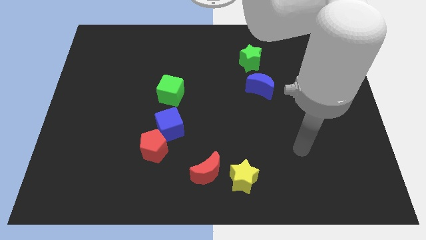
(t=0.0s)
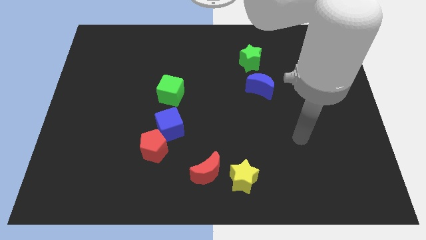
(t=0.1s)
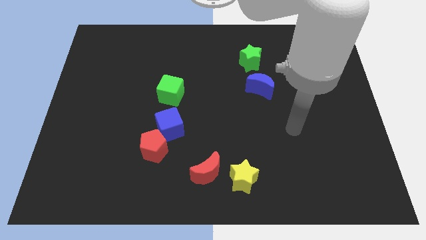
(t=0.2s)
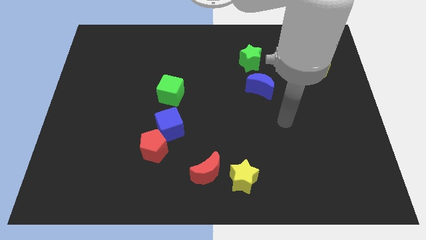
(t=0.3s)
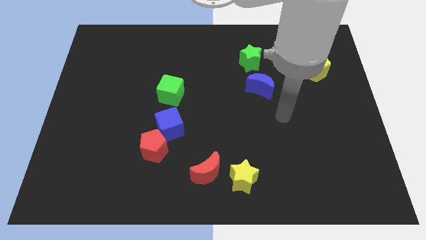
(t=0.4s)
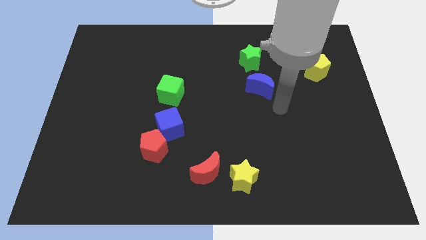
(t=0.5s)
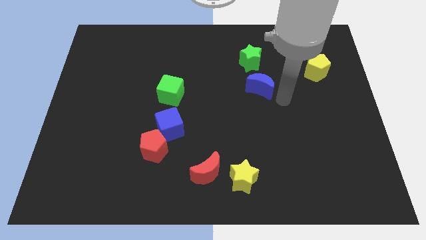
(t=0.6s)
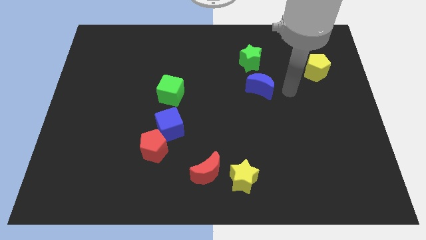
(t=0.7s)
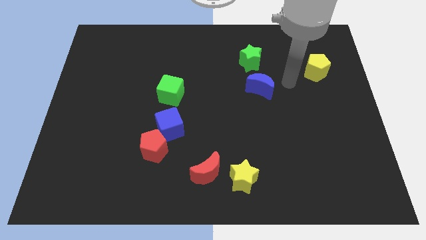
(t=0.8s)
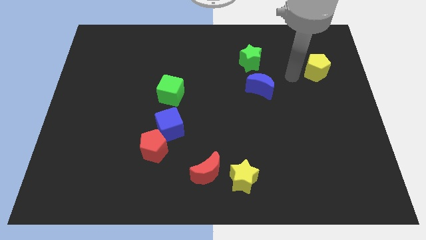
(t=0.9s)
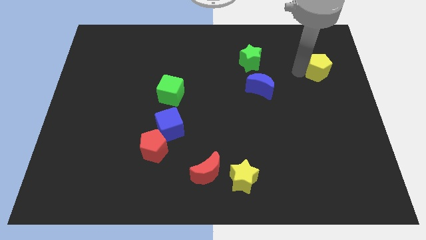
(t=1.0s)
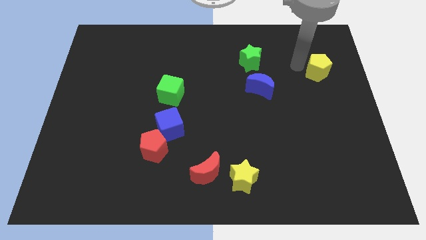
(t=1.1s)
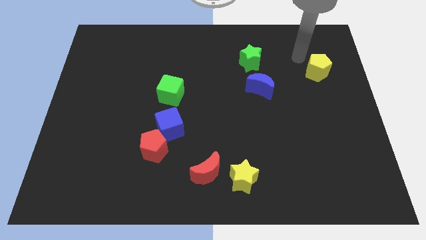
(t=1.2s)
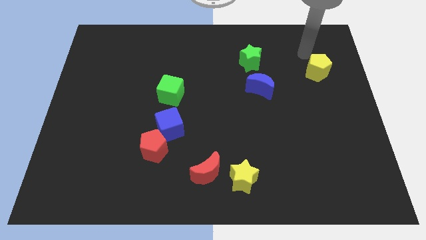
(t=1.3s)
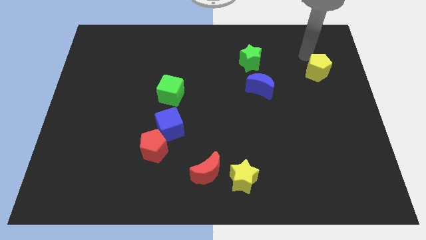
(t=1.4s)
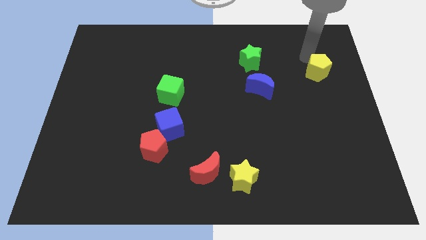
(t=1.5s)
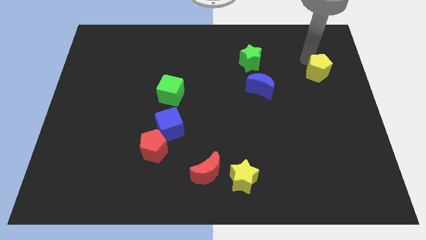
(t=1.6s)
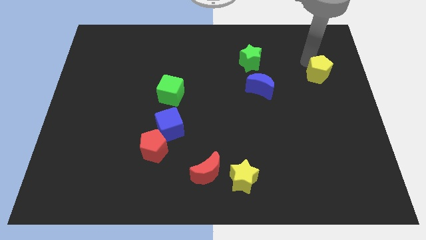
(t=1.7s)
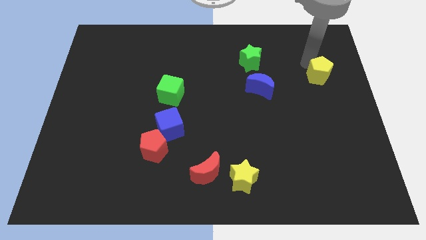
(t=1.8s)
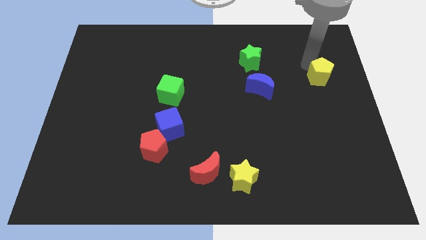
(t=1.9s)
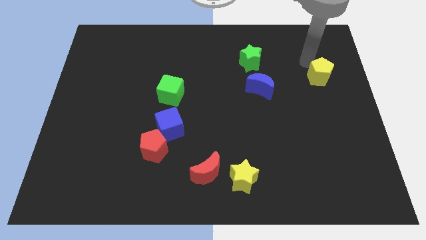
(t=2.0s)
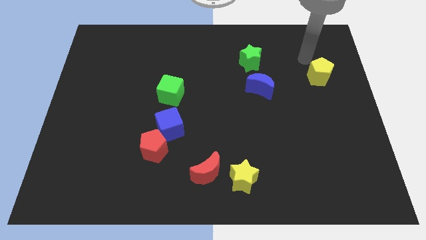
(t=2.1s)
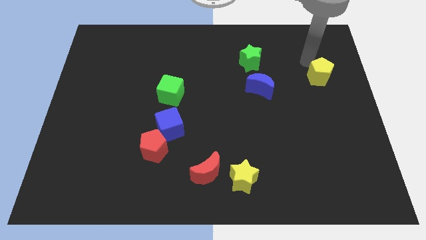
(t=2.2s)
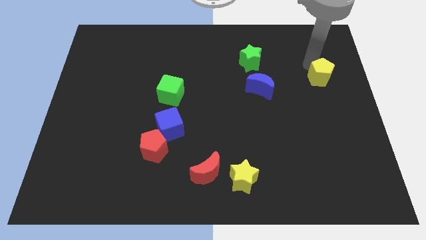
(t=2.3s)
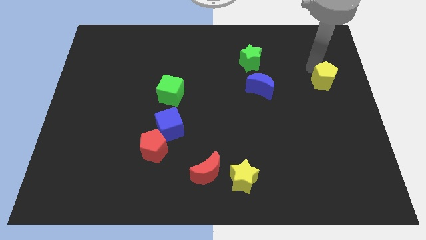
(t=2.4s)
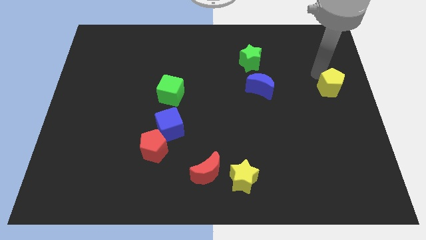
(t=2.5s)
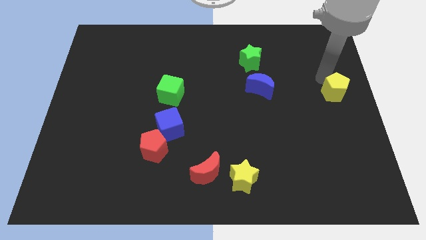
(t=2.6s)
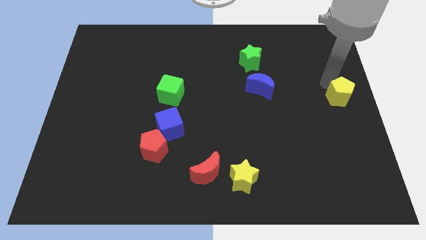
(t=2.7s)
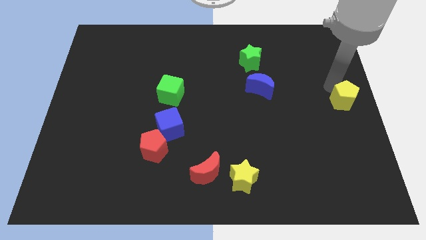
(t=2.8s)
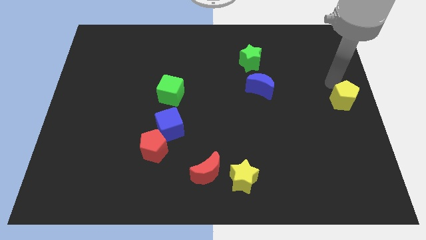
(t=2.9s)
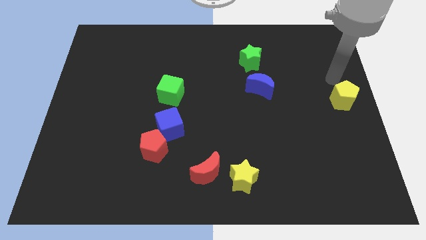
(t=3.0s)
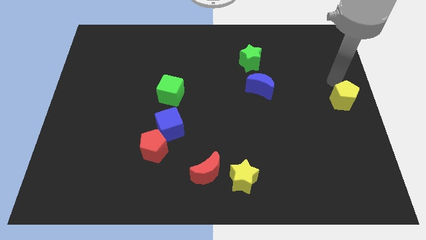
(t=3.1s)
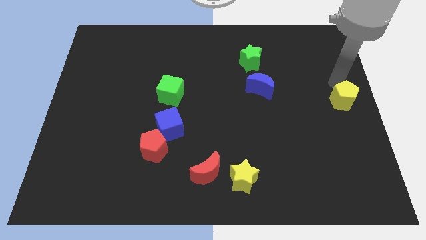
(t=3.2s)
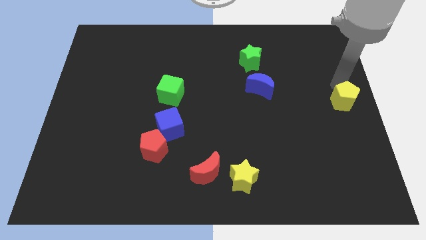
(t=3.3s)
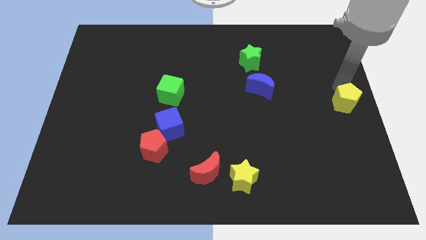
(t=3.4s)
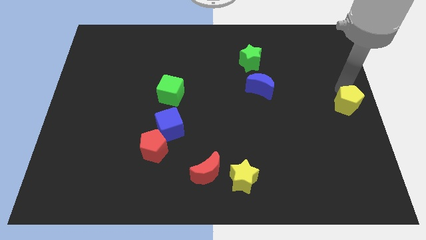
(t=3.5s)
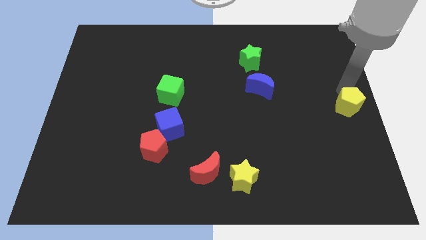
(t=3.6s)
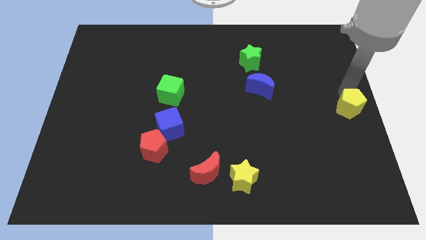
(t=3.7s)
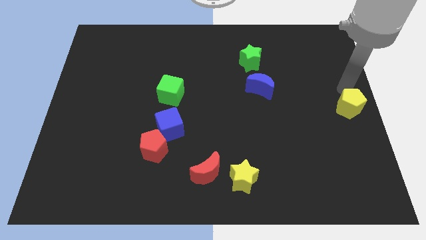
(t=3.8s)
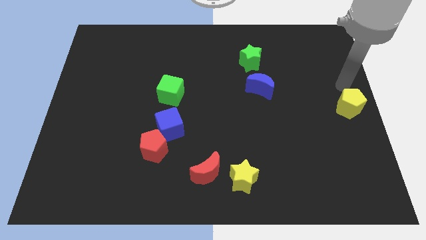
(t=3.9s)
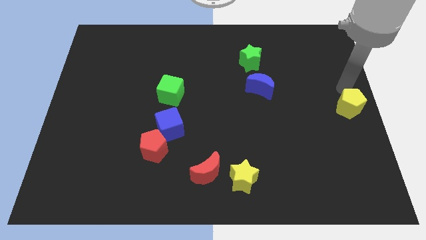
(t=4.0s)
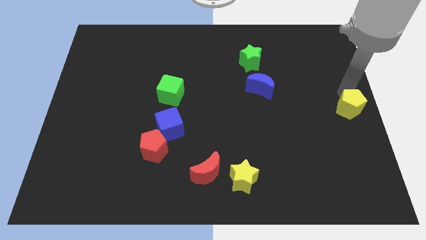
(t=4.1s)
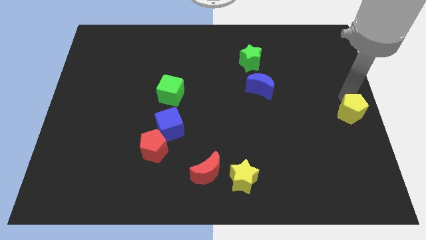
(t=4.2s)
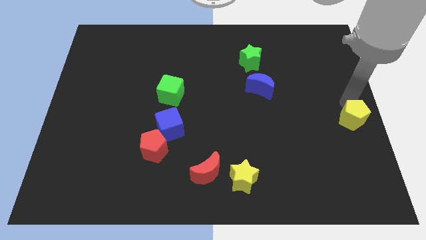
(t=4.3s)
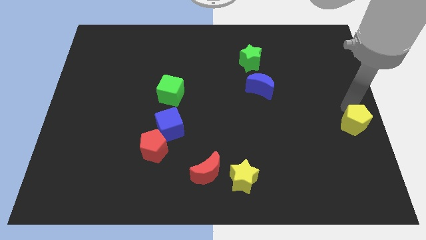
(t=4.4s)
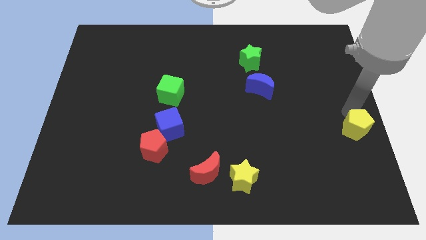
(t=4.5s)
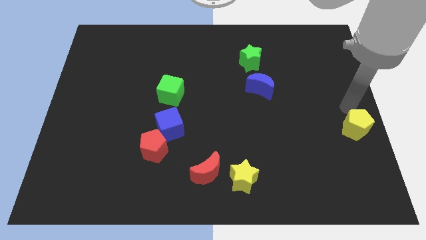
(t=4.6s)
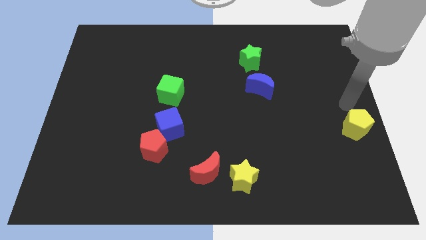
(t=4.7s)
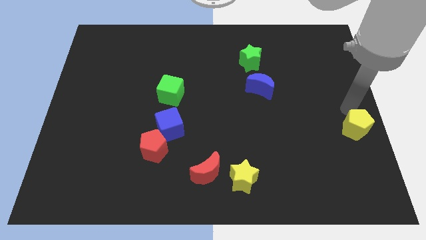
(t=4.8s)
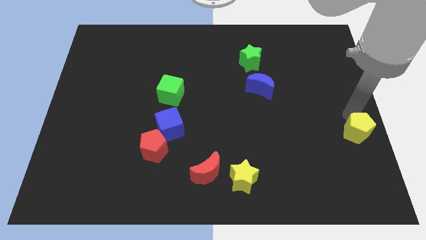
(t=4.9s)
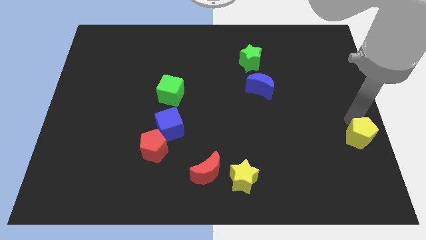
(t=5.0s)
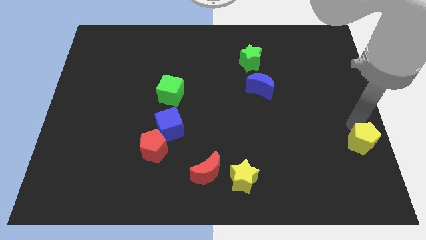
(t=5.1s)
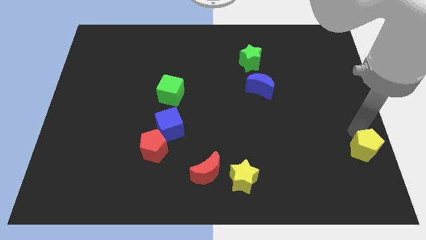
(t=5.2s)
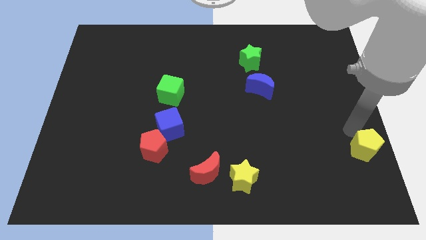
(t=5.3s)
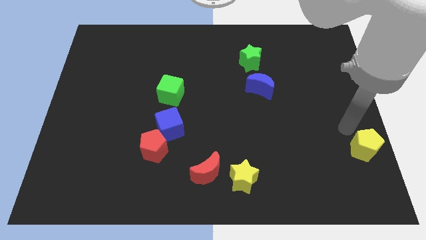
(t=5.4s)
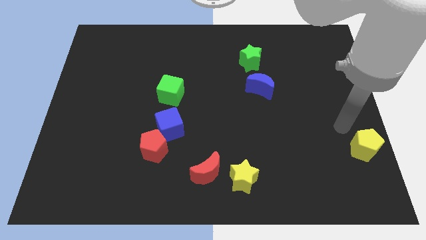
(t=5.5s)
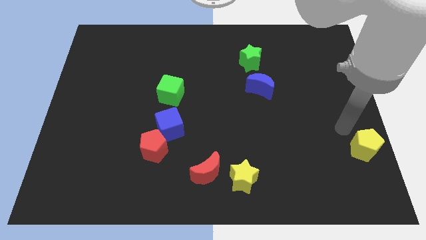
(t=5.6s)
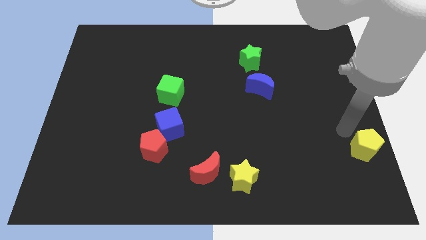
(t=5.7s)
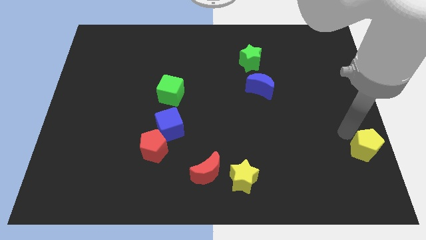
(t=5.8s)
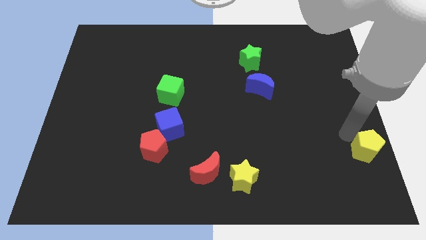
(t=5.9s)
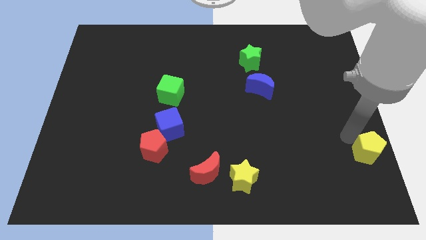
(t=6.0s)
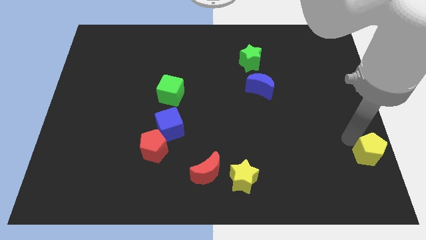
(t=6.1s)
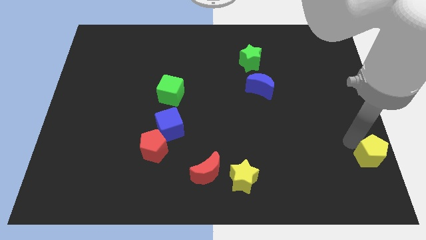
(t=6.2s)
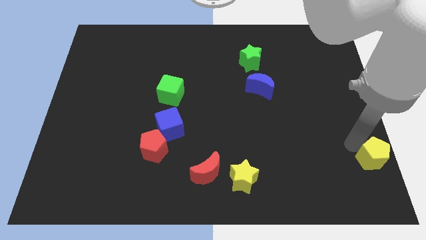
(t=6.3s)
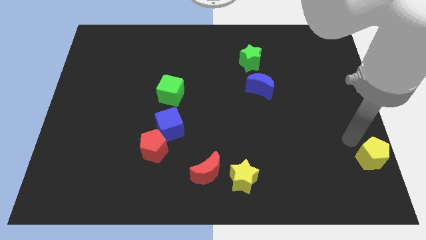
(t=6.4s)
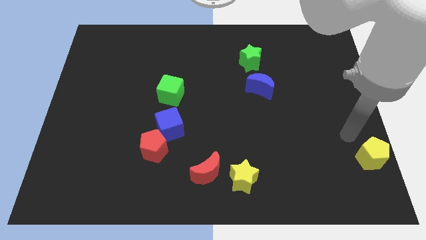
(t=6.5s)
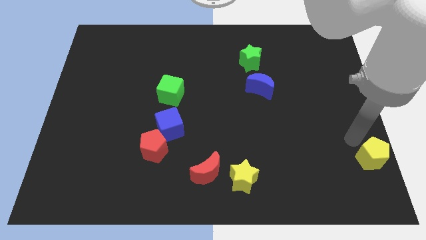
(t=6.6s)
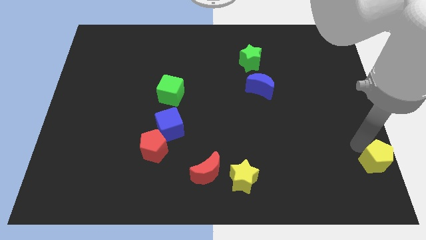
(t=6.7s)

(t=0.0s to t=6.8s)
push the yellow pentagon to the lower right corner
